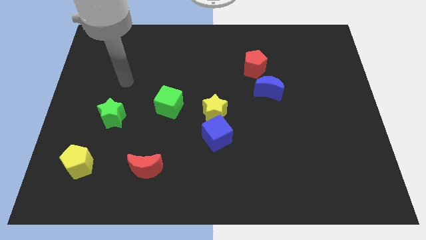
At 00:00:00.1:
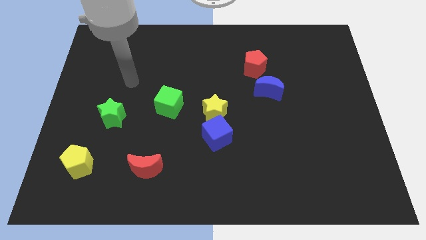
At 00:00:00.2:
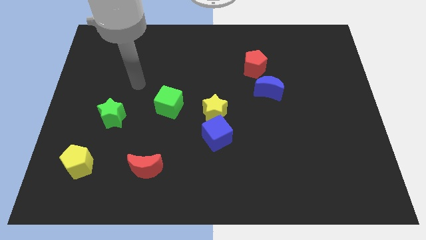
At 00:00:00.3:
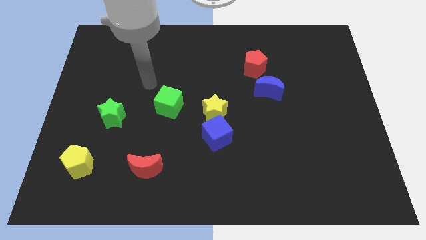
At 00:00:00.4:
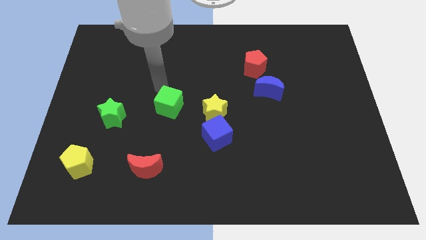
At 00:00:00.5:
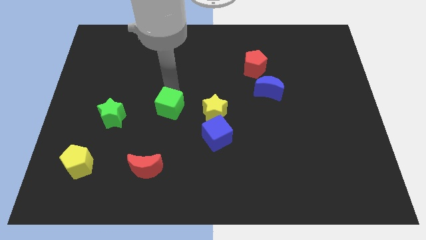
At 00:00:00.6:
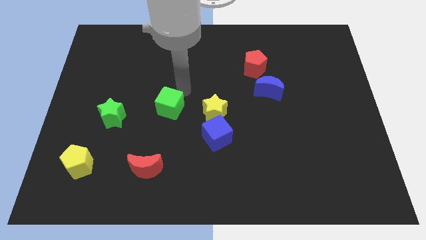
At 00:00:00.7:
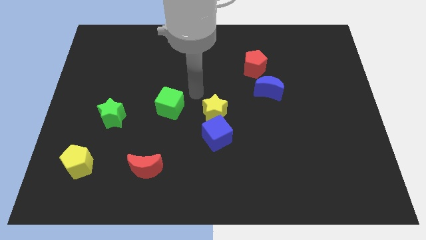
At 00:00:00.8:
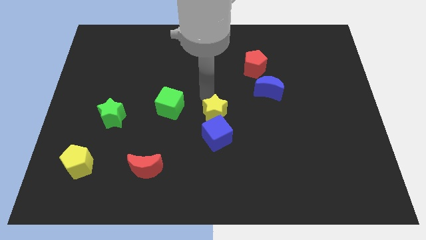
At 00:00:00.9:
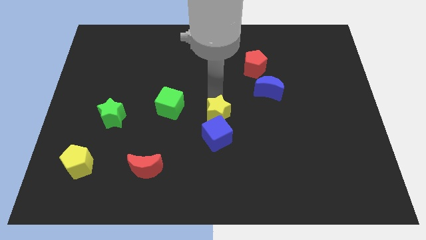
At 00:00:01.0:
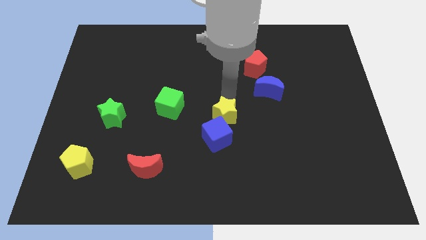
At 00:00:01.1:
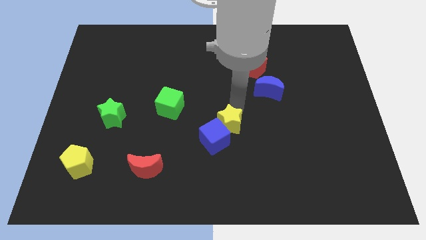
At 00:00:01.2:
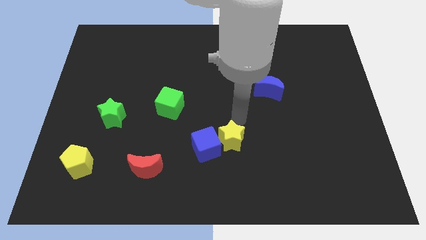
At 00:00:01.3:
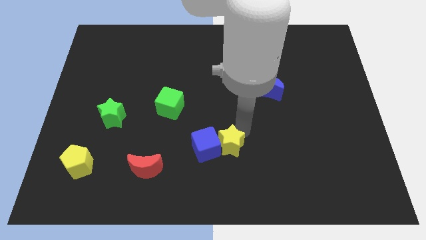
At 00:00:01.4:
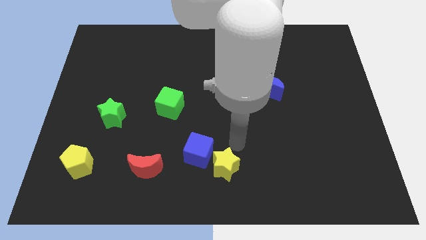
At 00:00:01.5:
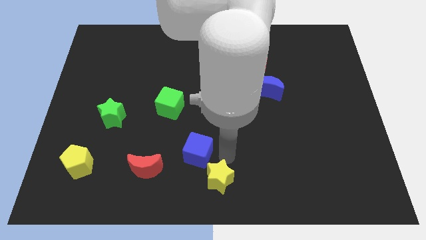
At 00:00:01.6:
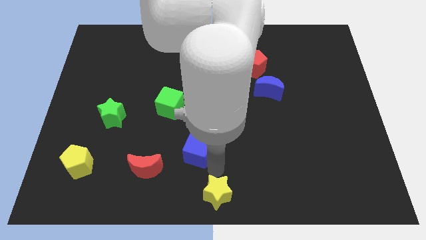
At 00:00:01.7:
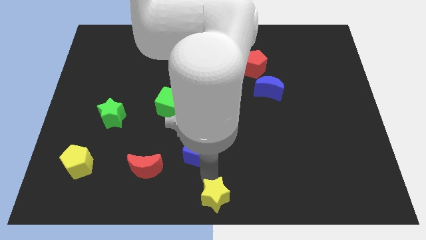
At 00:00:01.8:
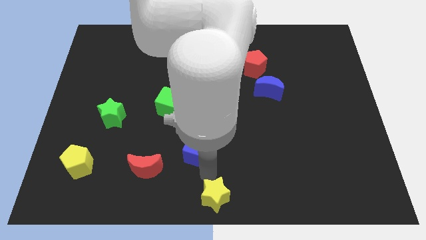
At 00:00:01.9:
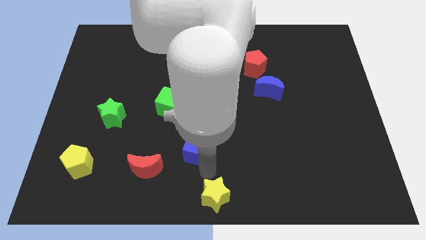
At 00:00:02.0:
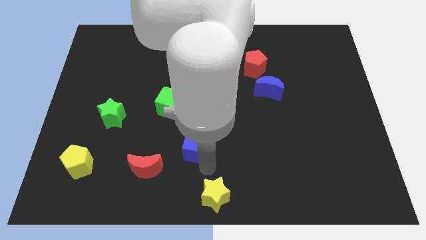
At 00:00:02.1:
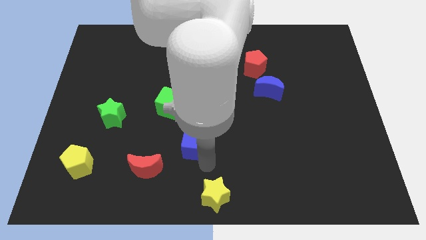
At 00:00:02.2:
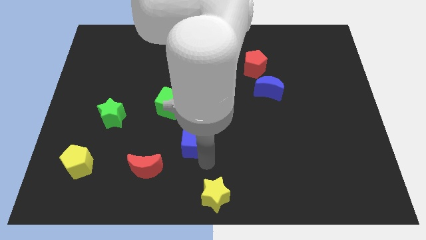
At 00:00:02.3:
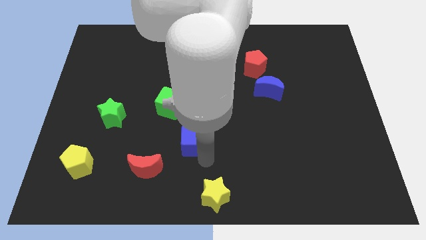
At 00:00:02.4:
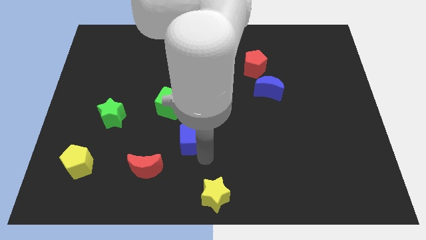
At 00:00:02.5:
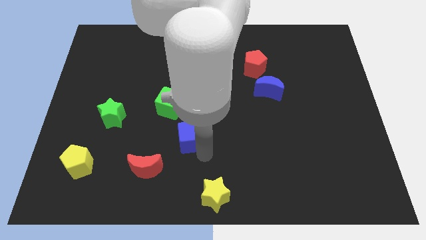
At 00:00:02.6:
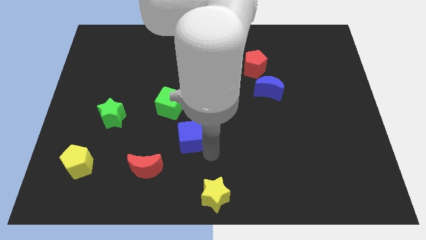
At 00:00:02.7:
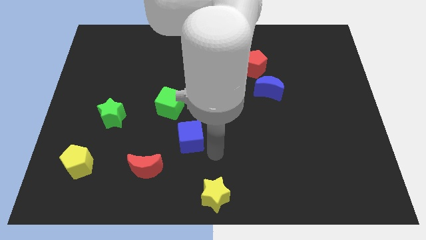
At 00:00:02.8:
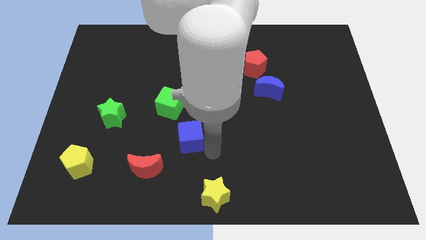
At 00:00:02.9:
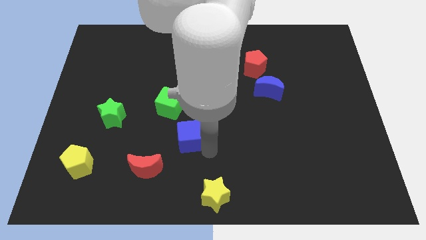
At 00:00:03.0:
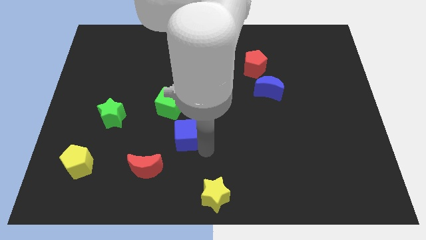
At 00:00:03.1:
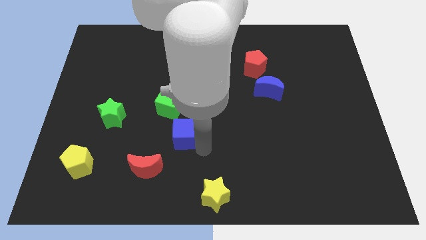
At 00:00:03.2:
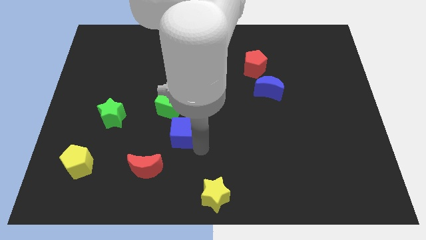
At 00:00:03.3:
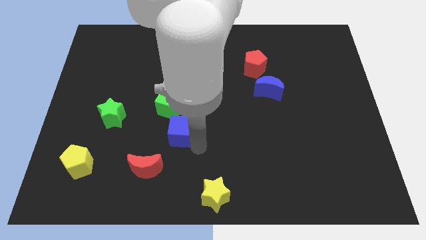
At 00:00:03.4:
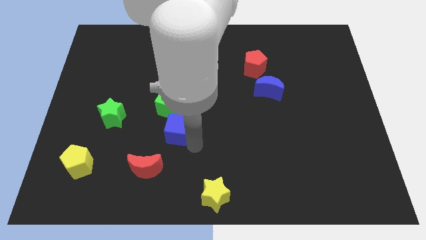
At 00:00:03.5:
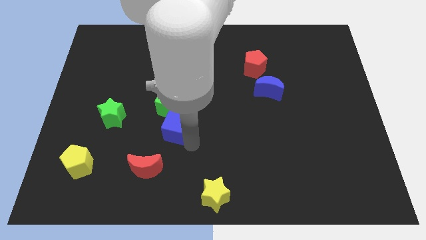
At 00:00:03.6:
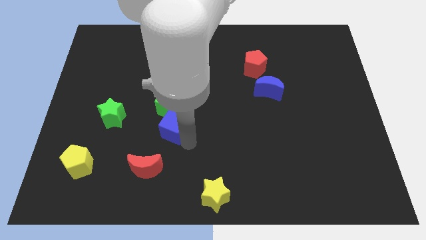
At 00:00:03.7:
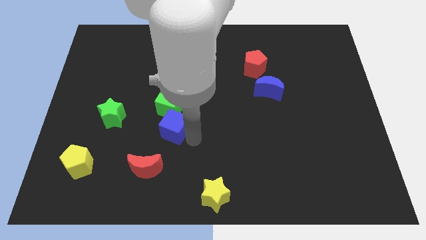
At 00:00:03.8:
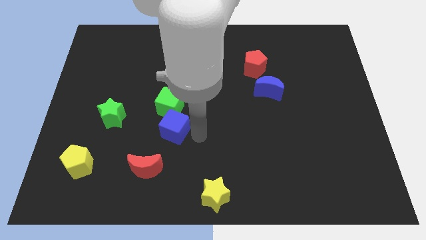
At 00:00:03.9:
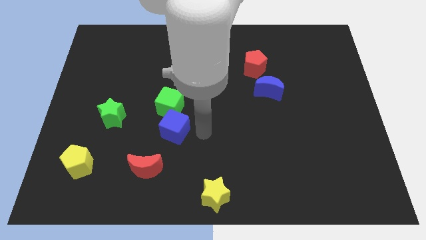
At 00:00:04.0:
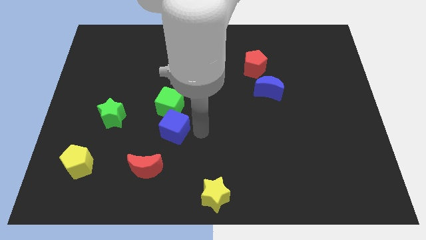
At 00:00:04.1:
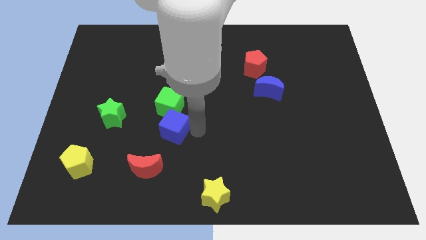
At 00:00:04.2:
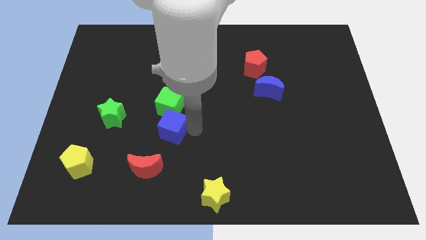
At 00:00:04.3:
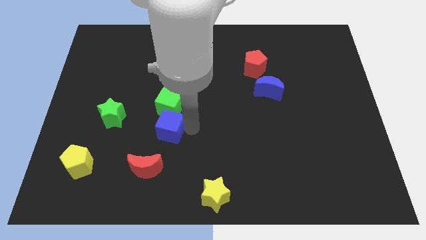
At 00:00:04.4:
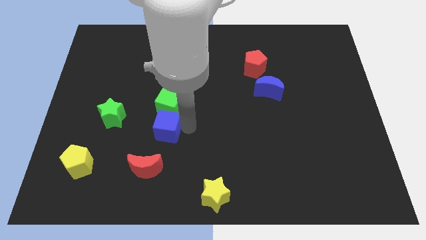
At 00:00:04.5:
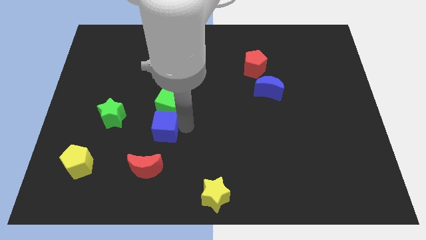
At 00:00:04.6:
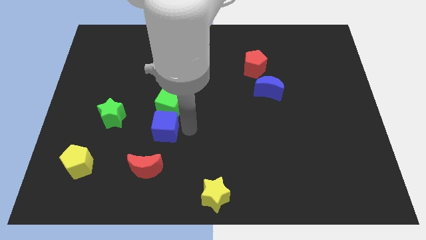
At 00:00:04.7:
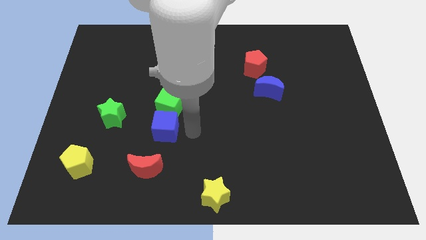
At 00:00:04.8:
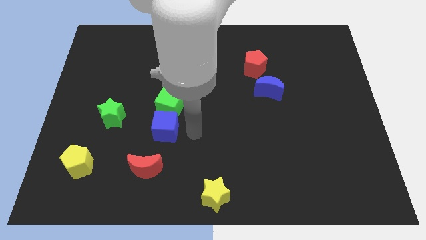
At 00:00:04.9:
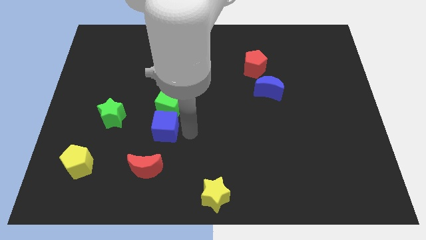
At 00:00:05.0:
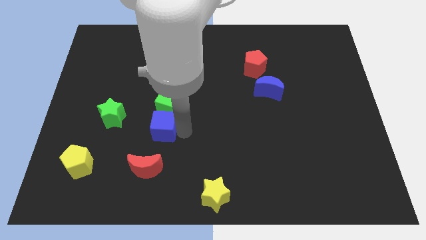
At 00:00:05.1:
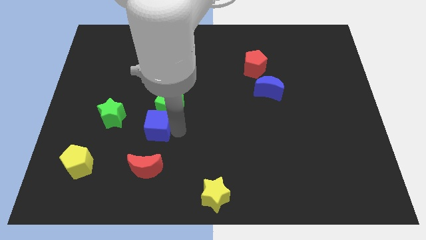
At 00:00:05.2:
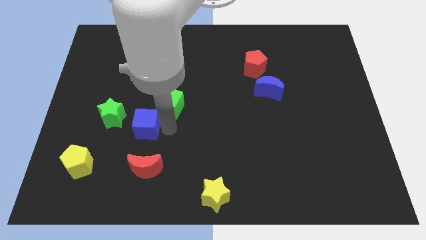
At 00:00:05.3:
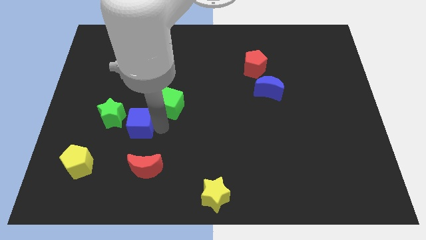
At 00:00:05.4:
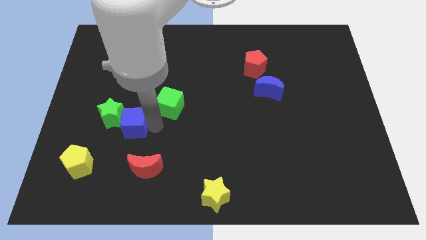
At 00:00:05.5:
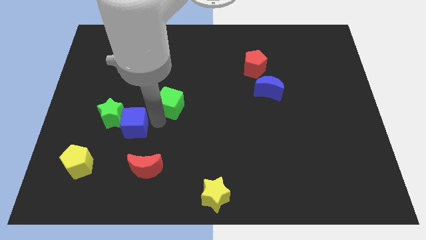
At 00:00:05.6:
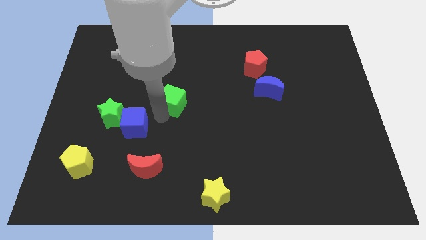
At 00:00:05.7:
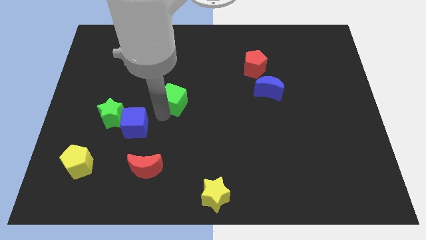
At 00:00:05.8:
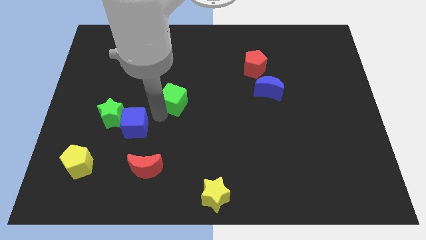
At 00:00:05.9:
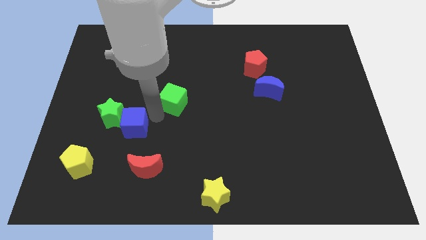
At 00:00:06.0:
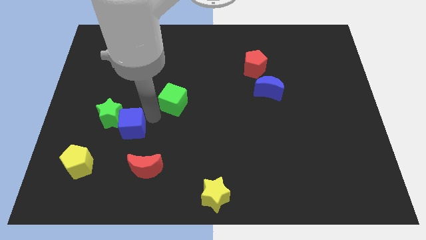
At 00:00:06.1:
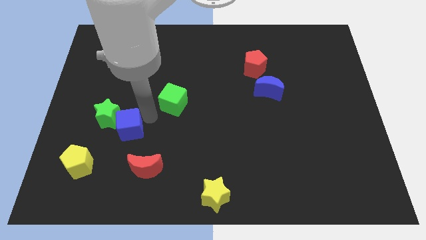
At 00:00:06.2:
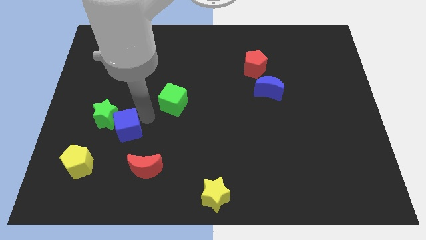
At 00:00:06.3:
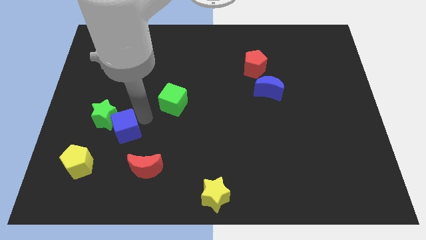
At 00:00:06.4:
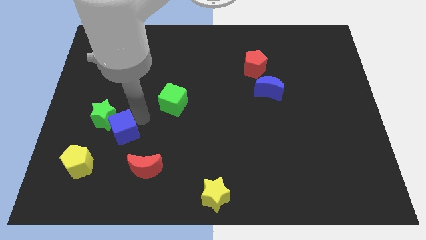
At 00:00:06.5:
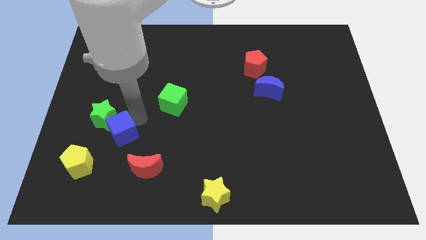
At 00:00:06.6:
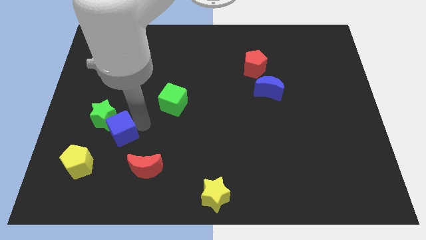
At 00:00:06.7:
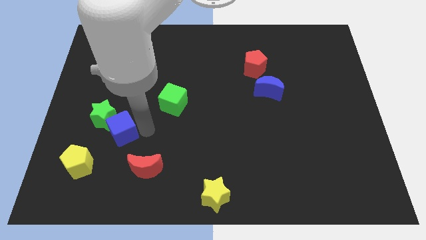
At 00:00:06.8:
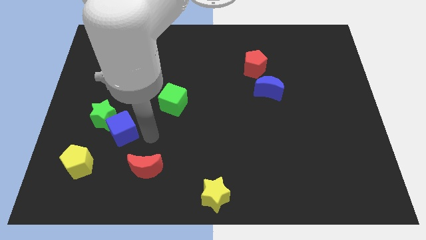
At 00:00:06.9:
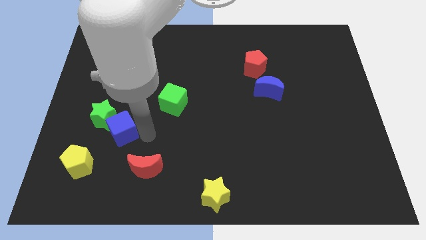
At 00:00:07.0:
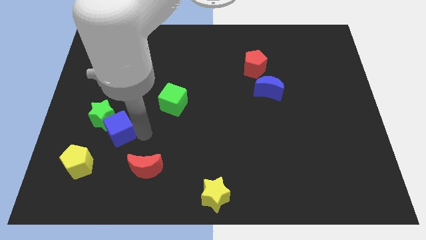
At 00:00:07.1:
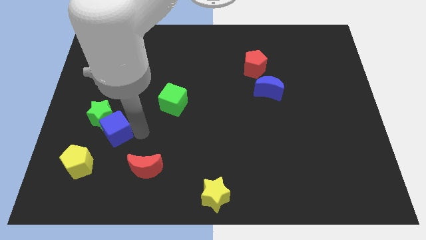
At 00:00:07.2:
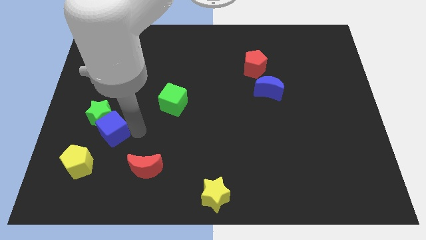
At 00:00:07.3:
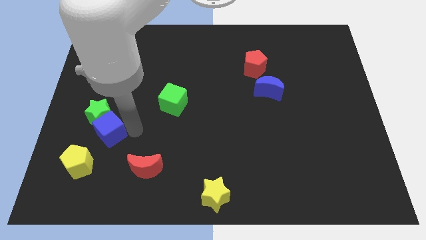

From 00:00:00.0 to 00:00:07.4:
put the blue cube to the top of the yellow pentagon
